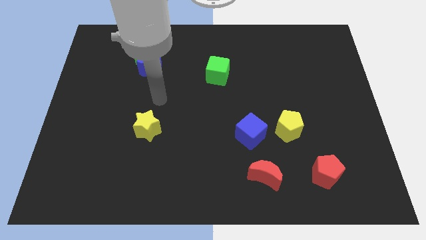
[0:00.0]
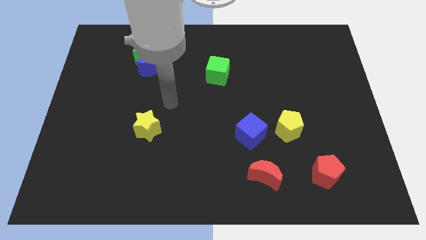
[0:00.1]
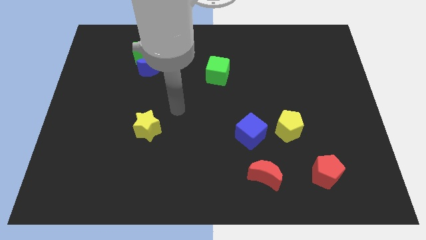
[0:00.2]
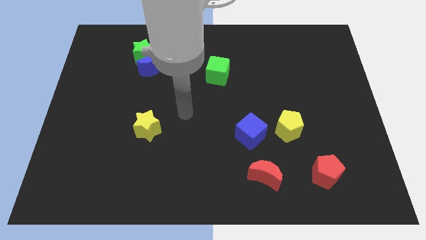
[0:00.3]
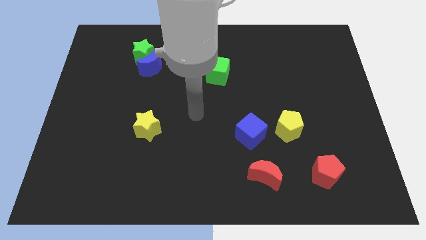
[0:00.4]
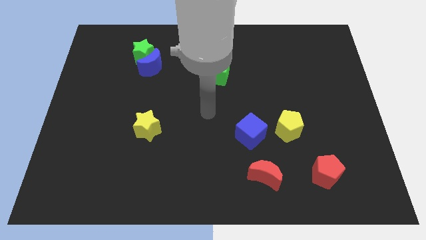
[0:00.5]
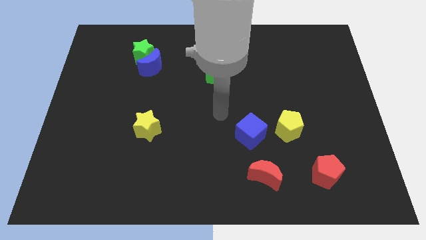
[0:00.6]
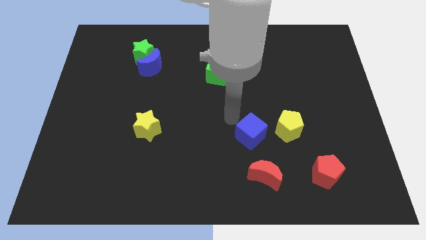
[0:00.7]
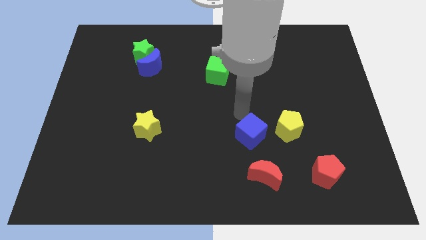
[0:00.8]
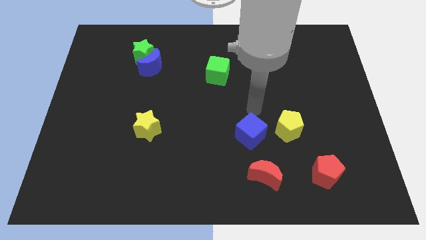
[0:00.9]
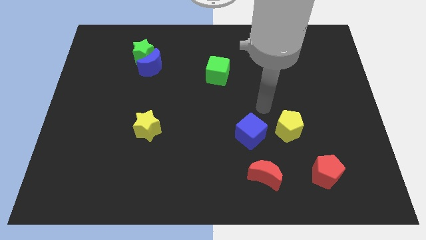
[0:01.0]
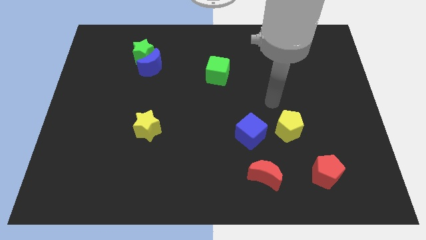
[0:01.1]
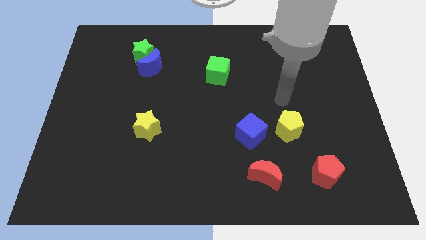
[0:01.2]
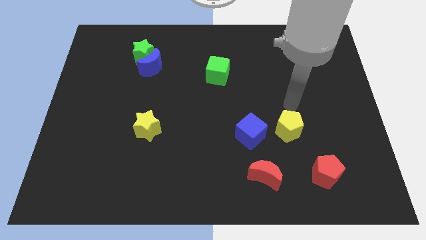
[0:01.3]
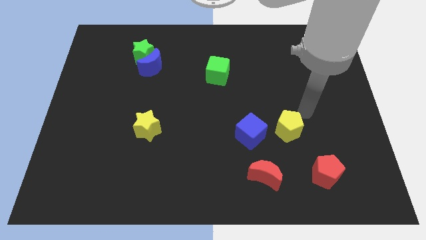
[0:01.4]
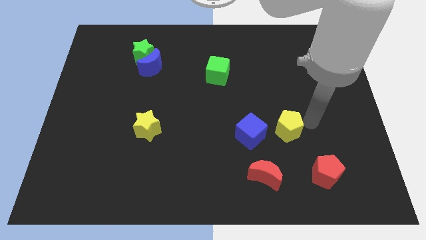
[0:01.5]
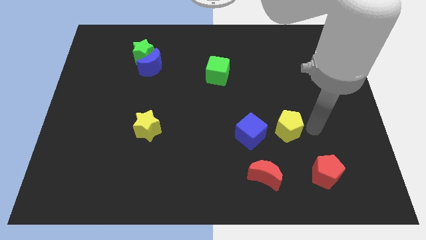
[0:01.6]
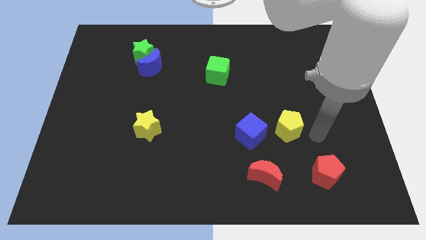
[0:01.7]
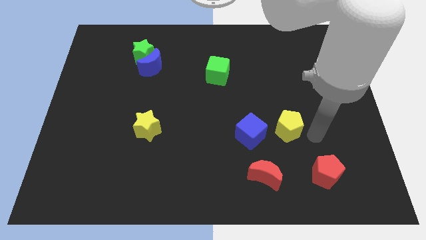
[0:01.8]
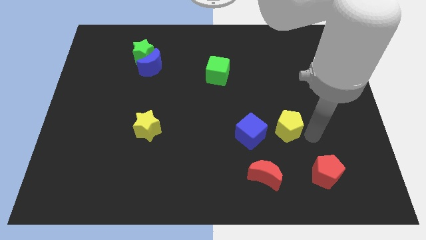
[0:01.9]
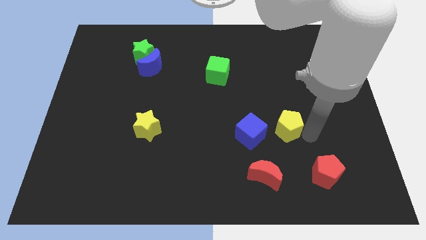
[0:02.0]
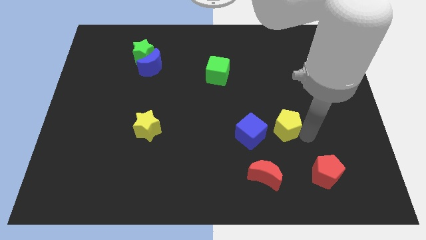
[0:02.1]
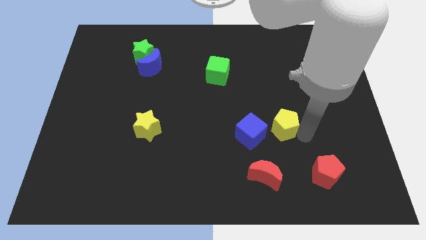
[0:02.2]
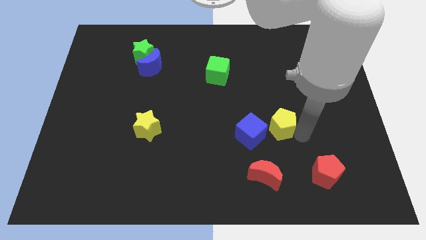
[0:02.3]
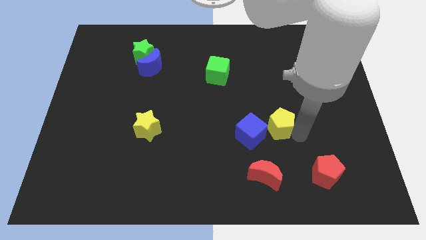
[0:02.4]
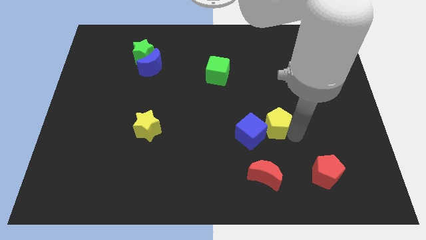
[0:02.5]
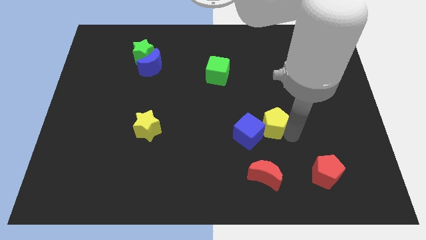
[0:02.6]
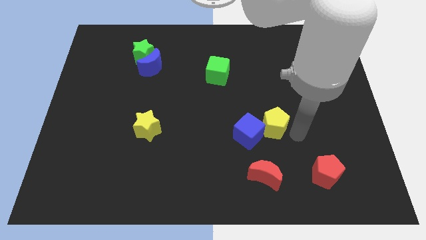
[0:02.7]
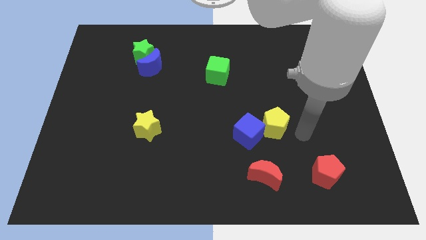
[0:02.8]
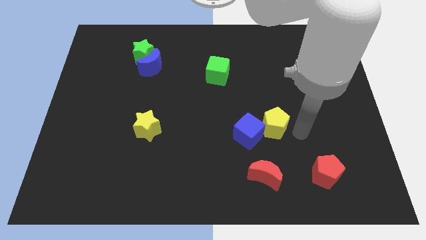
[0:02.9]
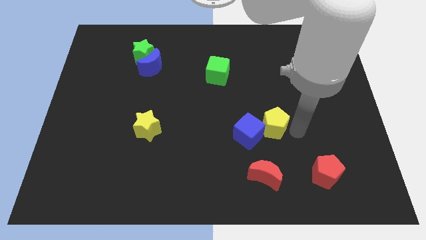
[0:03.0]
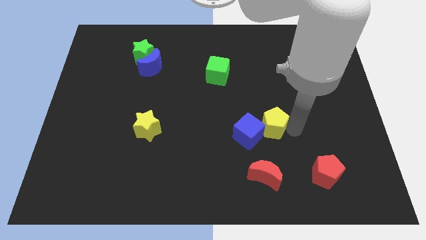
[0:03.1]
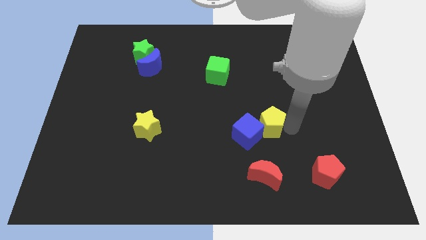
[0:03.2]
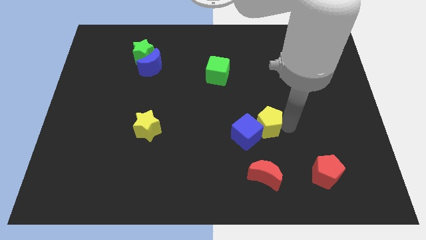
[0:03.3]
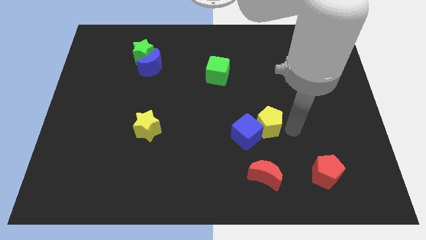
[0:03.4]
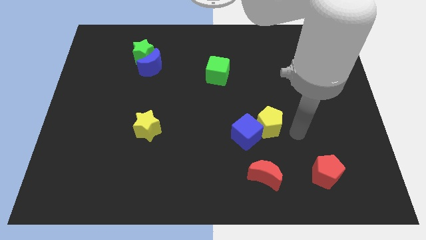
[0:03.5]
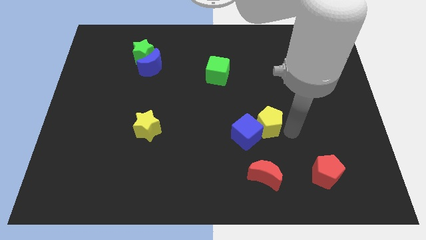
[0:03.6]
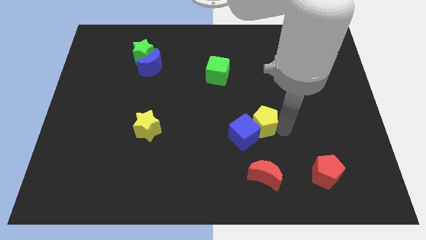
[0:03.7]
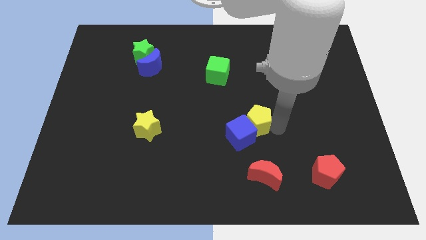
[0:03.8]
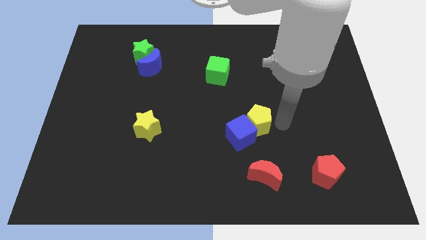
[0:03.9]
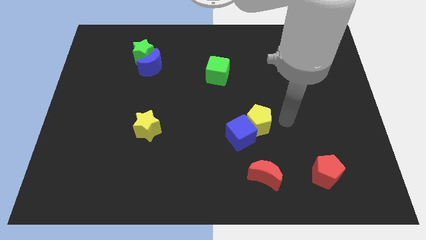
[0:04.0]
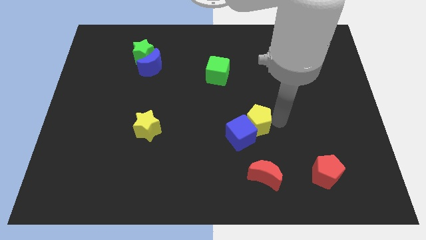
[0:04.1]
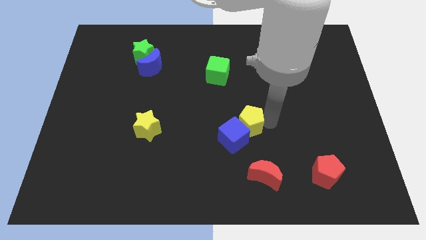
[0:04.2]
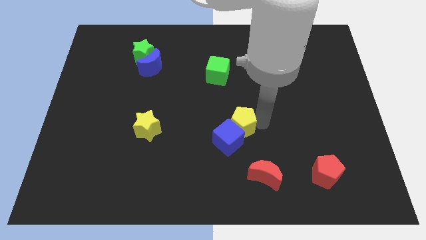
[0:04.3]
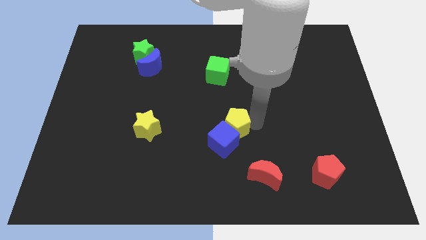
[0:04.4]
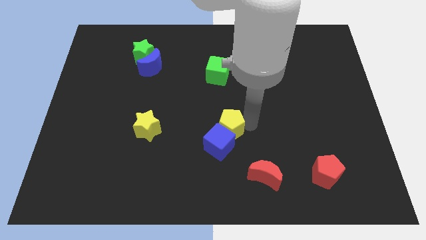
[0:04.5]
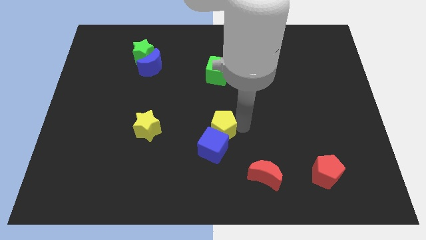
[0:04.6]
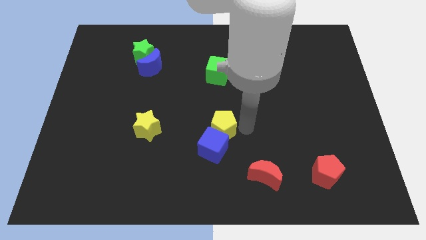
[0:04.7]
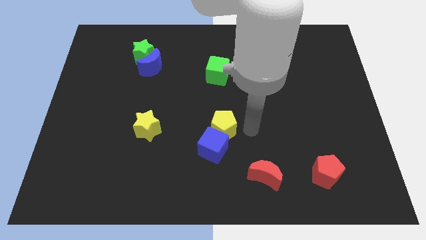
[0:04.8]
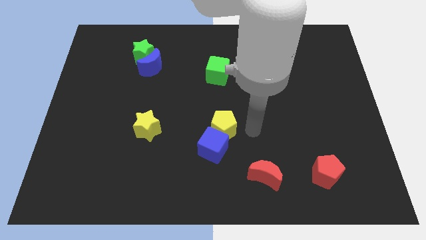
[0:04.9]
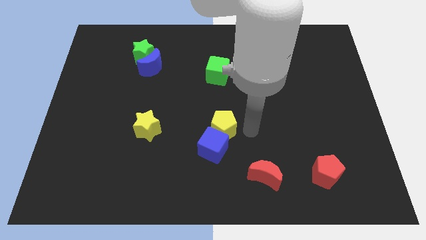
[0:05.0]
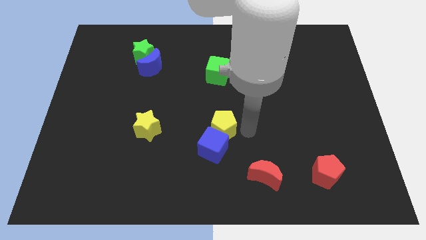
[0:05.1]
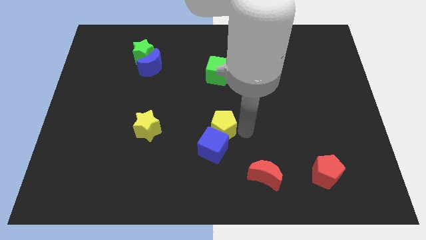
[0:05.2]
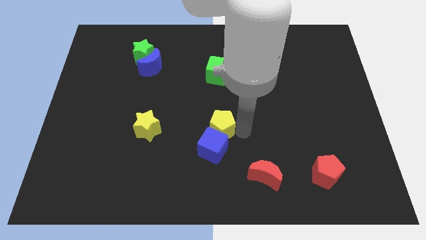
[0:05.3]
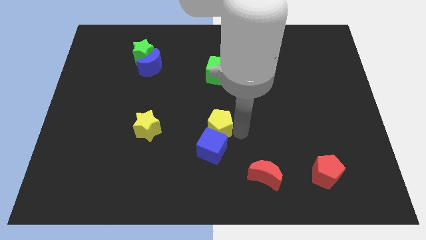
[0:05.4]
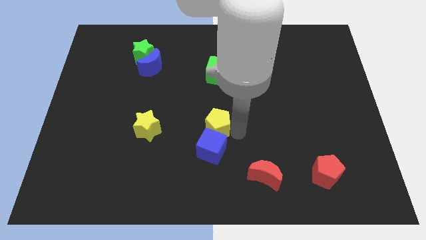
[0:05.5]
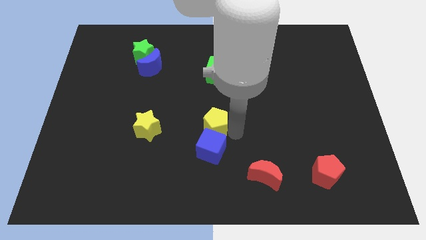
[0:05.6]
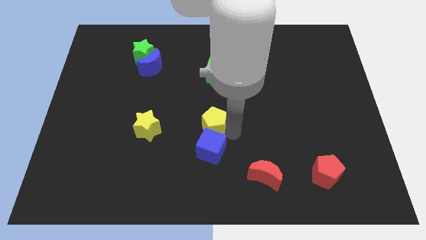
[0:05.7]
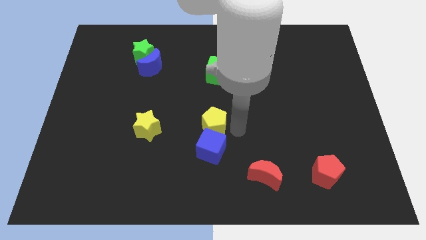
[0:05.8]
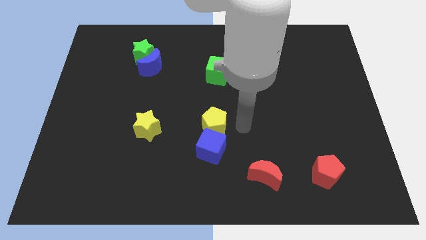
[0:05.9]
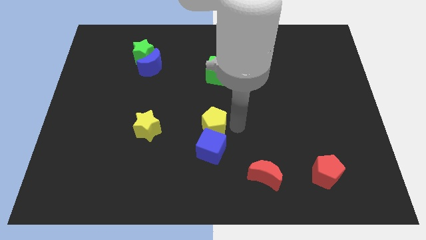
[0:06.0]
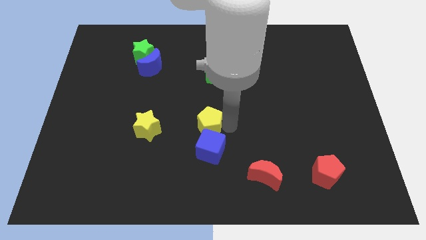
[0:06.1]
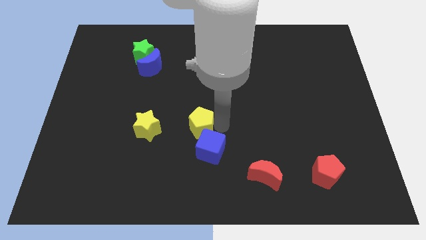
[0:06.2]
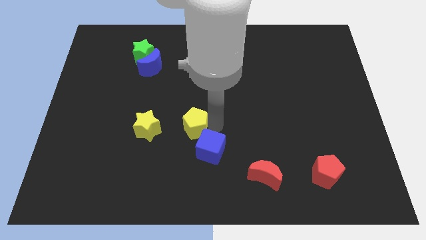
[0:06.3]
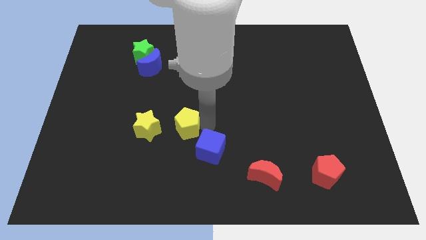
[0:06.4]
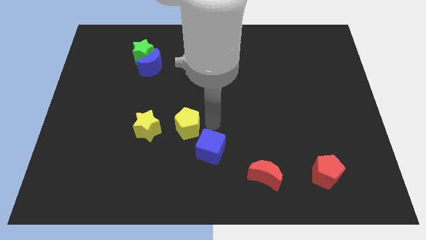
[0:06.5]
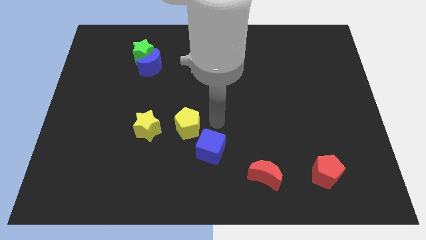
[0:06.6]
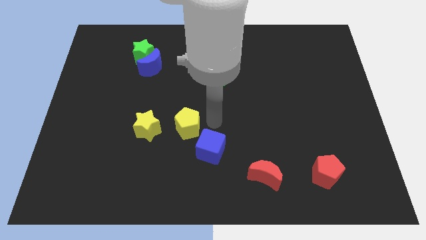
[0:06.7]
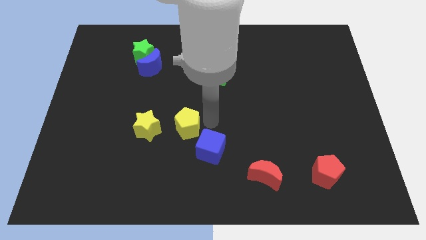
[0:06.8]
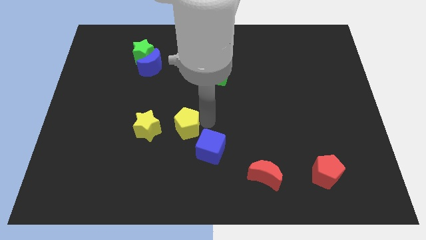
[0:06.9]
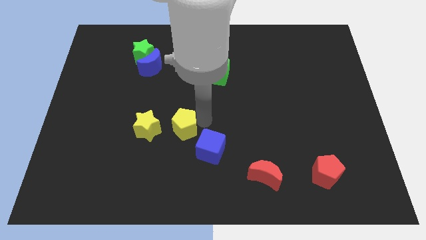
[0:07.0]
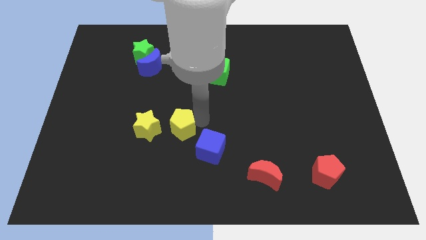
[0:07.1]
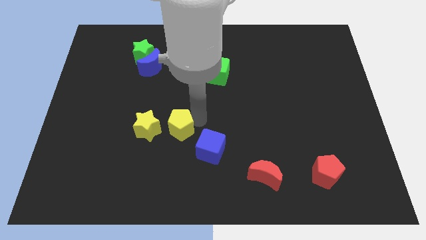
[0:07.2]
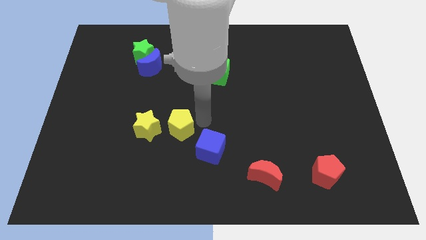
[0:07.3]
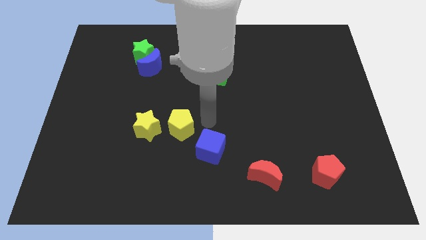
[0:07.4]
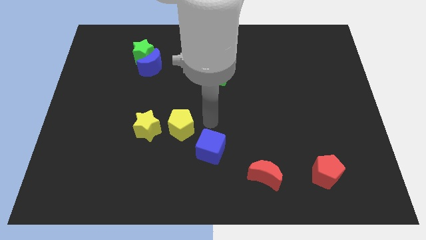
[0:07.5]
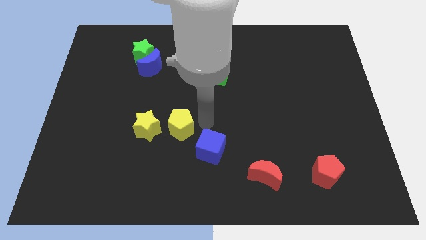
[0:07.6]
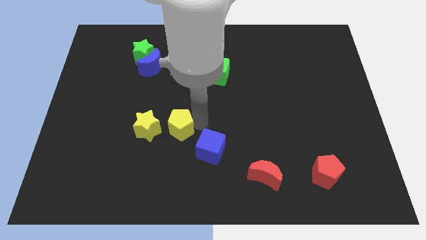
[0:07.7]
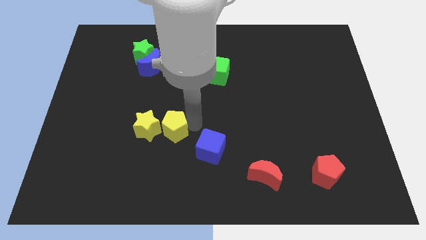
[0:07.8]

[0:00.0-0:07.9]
push the yellow pentagon to the yellow star
